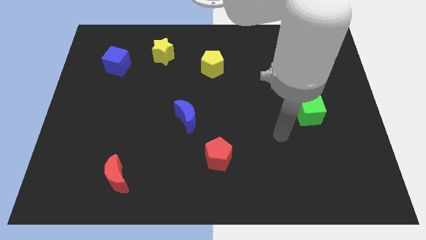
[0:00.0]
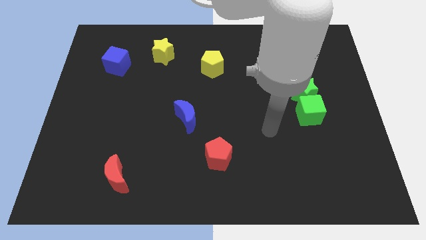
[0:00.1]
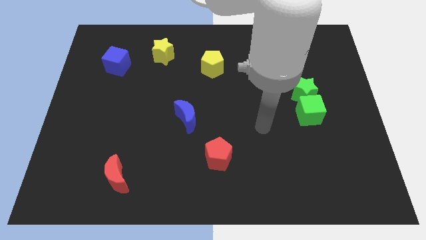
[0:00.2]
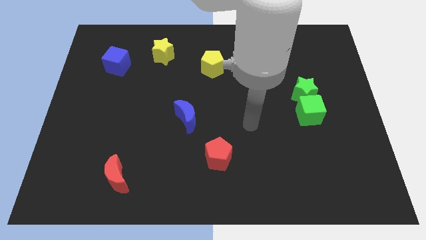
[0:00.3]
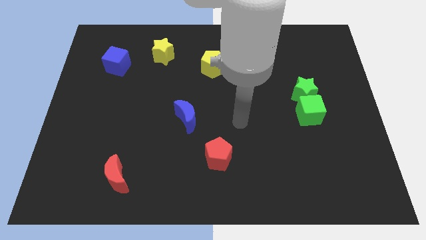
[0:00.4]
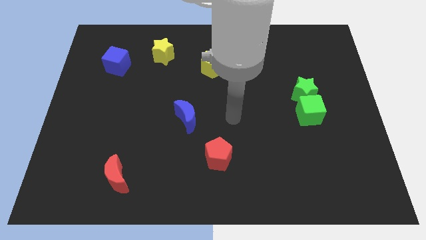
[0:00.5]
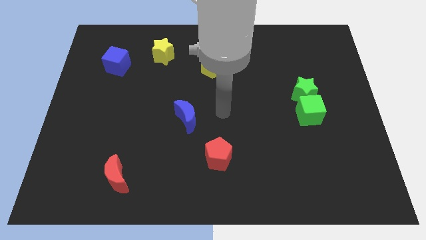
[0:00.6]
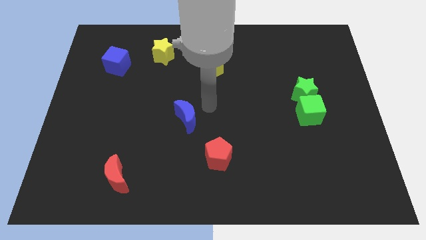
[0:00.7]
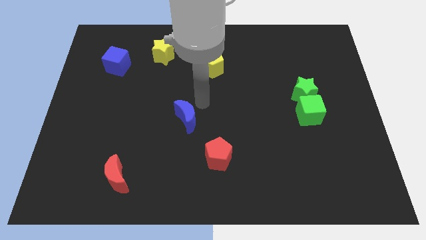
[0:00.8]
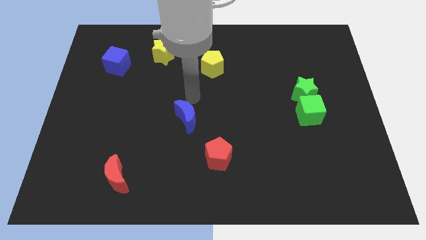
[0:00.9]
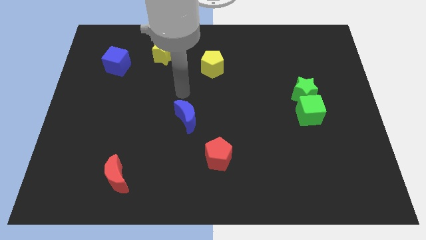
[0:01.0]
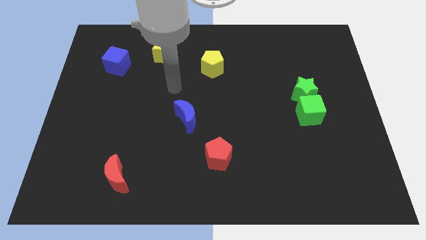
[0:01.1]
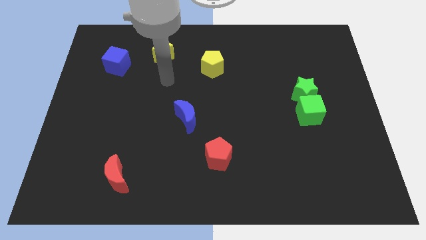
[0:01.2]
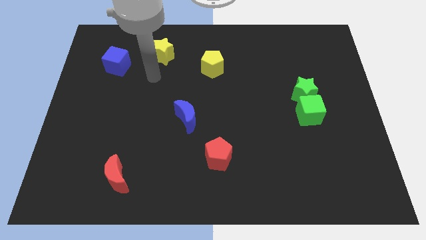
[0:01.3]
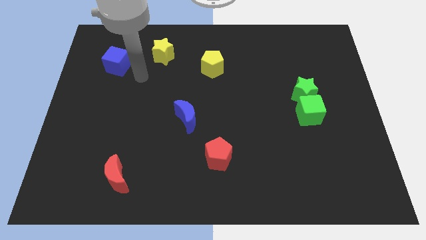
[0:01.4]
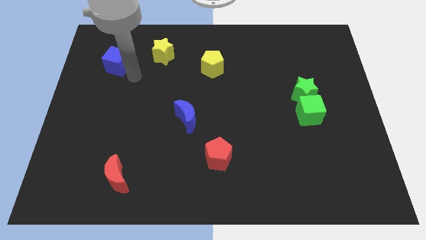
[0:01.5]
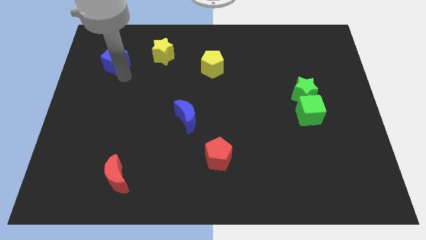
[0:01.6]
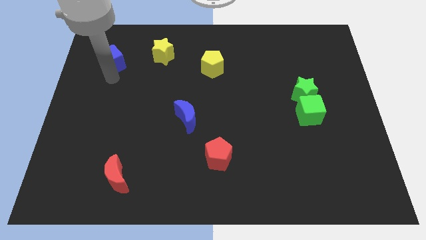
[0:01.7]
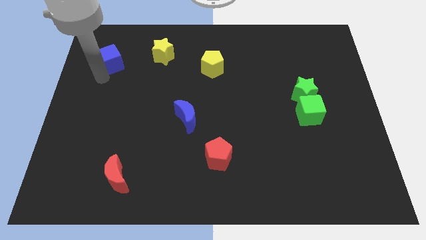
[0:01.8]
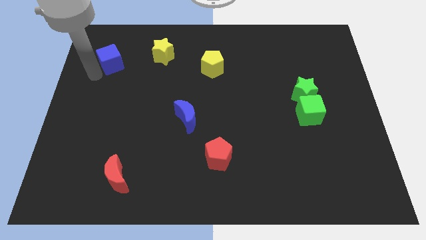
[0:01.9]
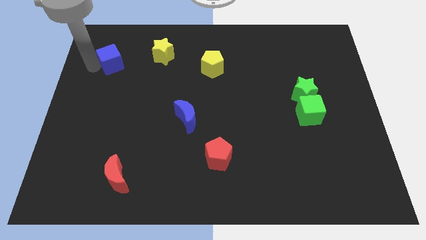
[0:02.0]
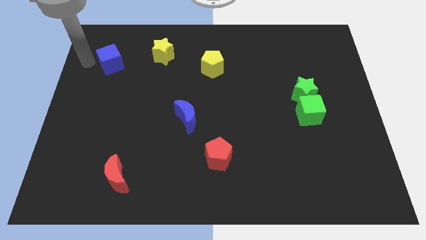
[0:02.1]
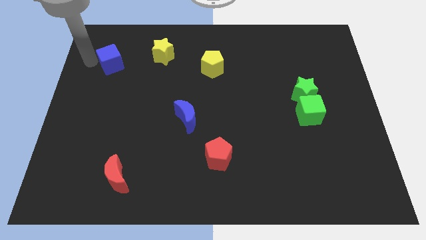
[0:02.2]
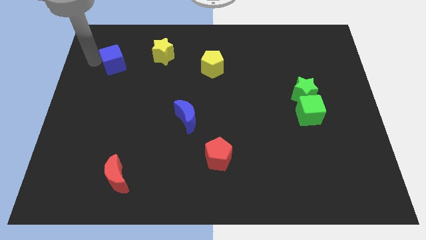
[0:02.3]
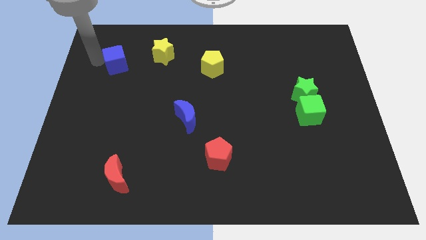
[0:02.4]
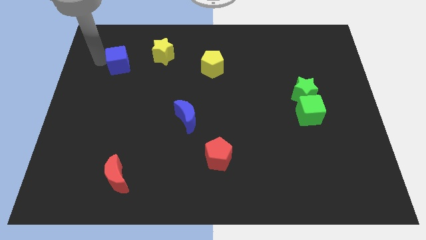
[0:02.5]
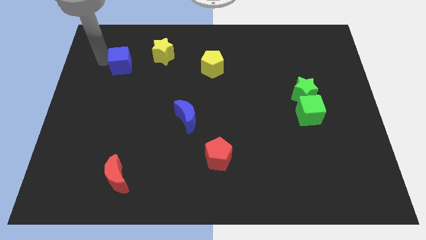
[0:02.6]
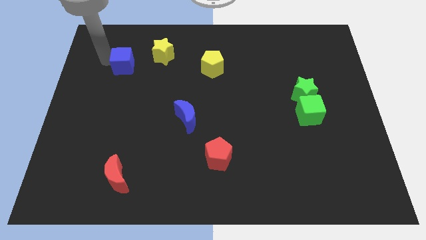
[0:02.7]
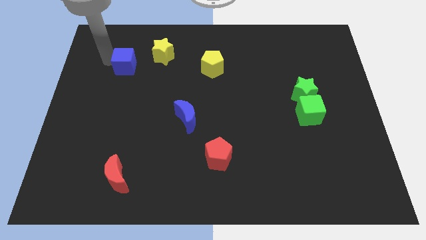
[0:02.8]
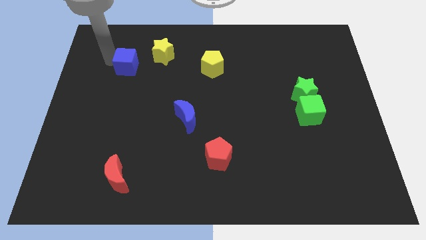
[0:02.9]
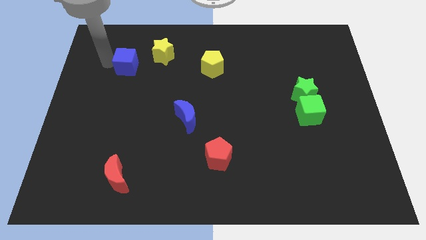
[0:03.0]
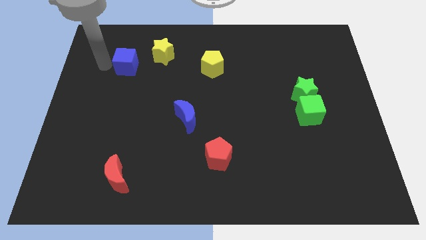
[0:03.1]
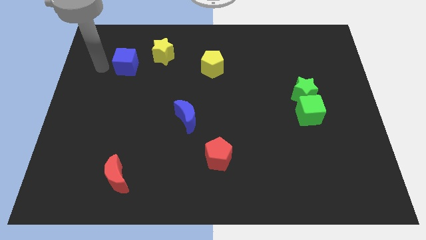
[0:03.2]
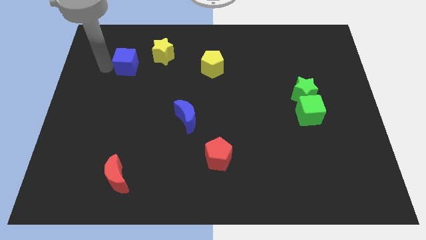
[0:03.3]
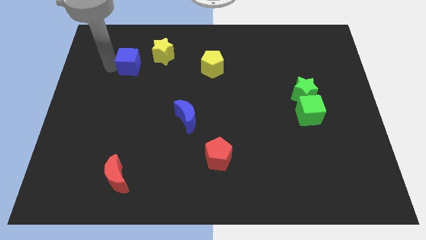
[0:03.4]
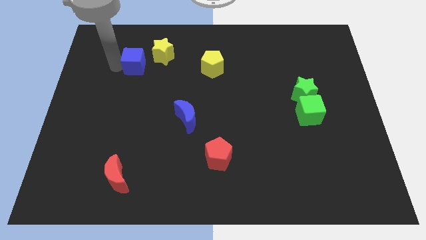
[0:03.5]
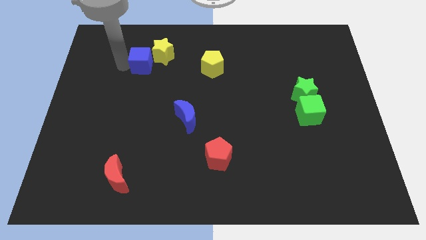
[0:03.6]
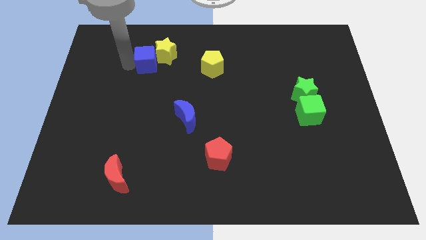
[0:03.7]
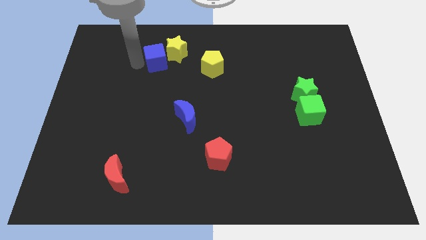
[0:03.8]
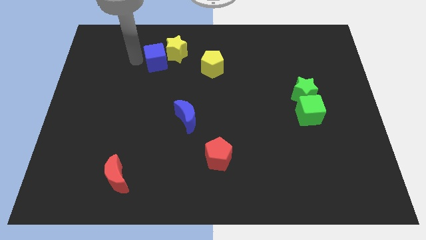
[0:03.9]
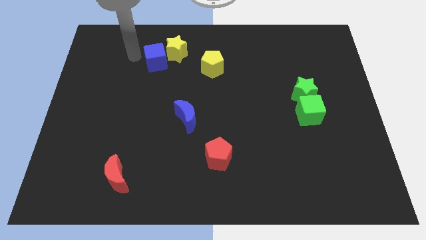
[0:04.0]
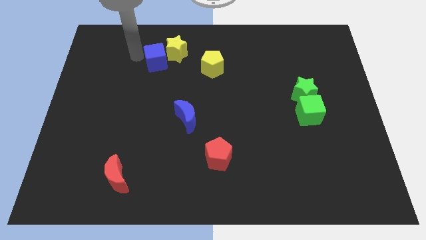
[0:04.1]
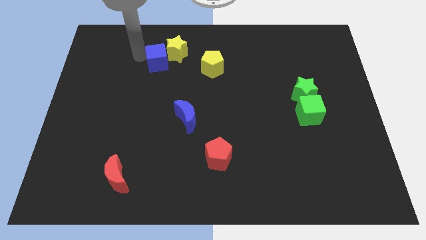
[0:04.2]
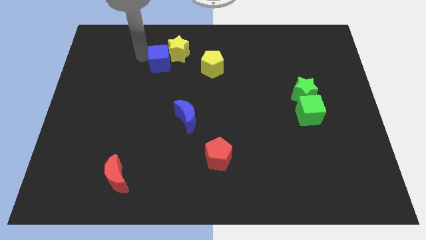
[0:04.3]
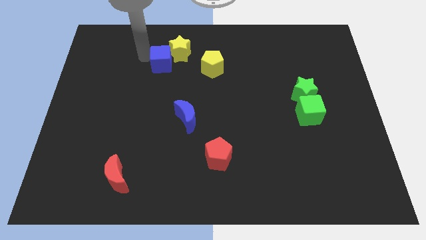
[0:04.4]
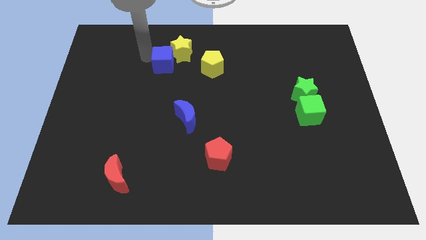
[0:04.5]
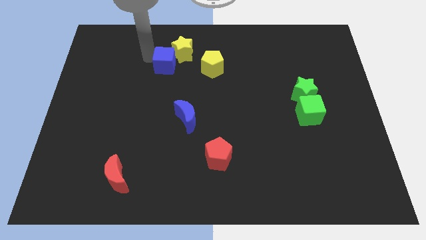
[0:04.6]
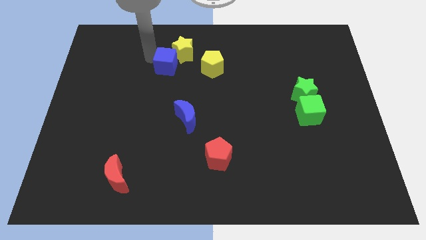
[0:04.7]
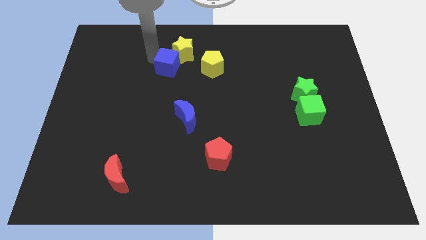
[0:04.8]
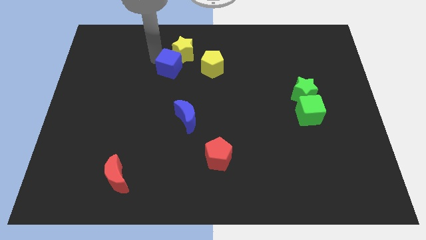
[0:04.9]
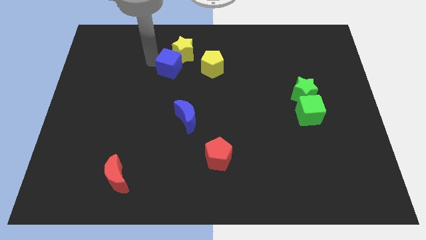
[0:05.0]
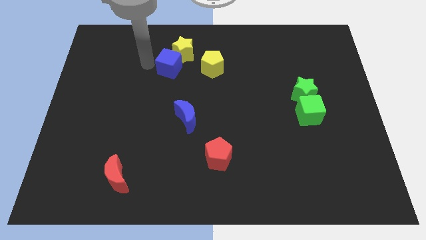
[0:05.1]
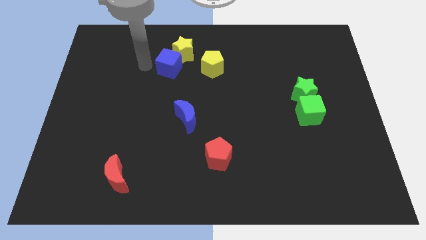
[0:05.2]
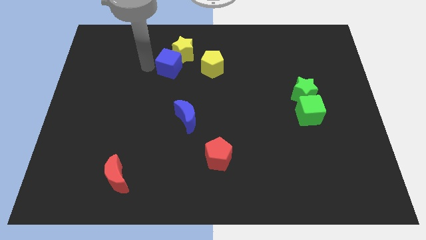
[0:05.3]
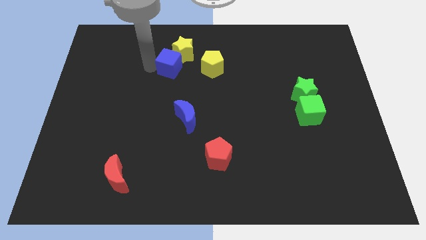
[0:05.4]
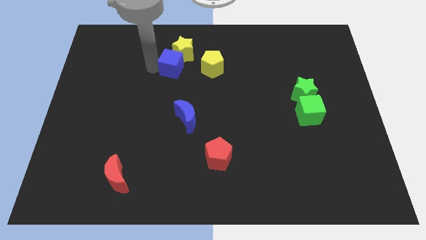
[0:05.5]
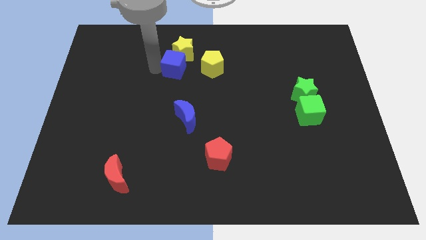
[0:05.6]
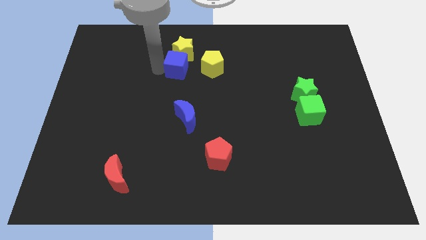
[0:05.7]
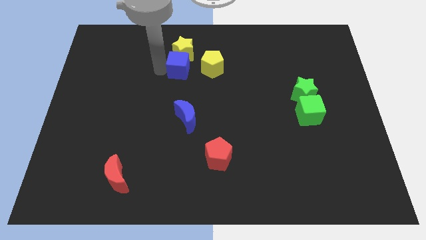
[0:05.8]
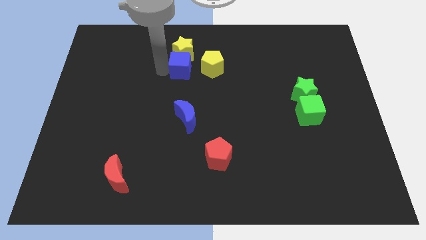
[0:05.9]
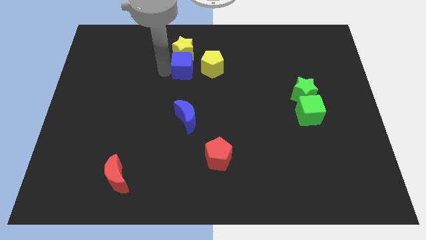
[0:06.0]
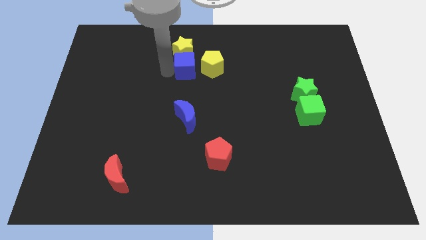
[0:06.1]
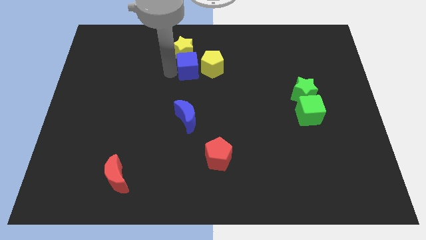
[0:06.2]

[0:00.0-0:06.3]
push the blue cube to the yellow pentagon

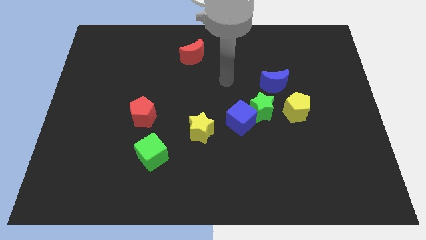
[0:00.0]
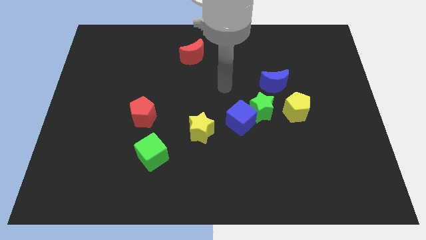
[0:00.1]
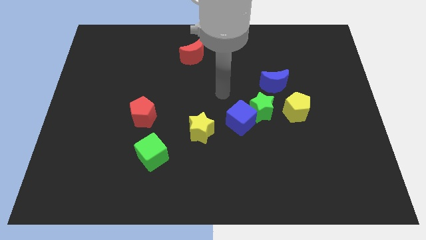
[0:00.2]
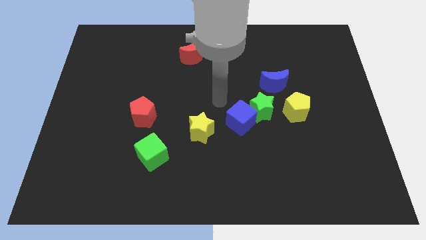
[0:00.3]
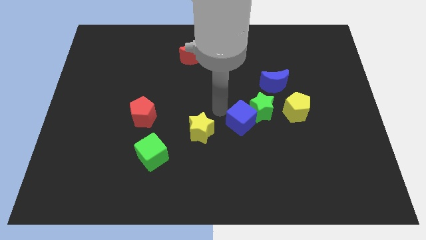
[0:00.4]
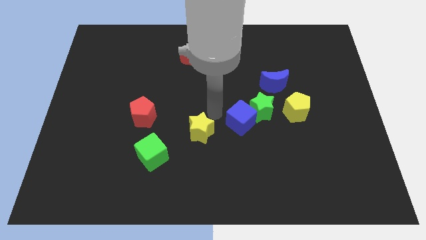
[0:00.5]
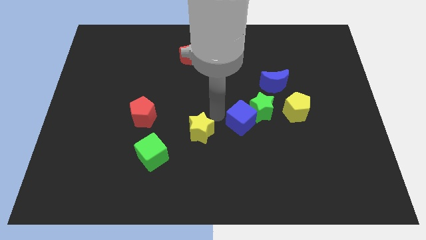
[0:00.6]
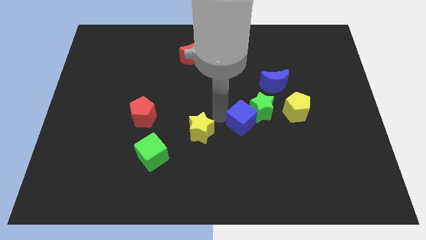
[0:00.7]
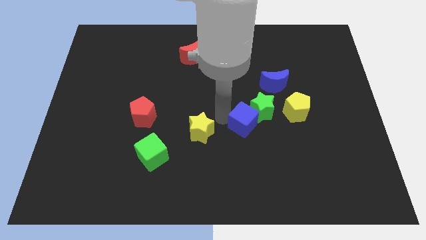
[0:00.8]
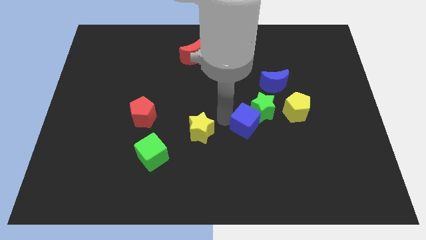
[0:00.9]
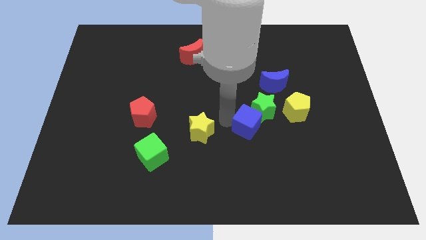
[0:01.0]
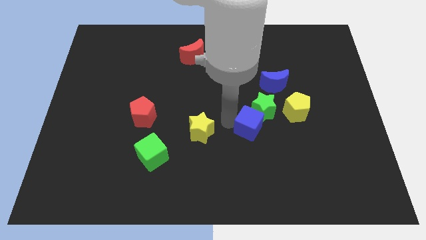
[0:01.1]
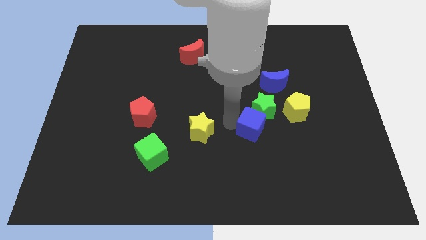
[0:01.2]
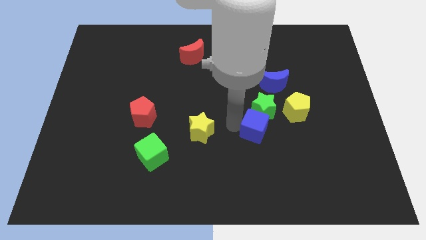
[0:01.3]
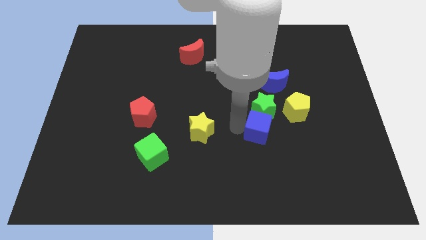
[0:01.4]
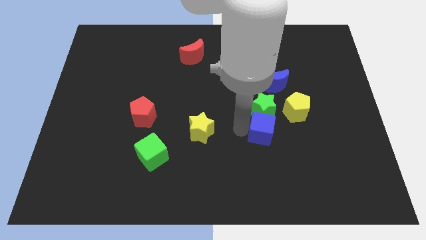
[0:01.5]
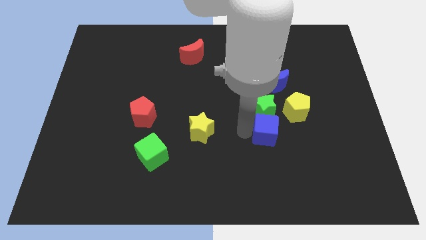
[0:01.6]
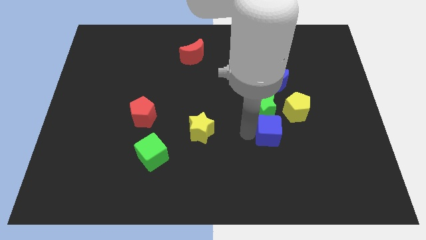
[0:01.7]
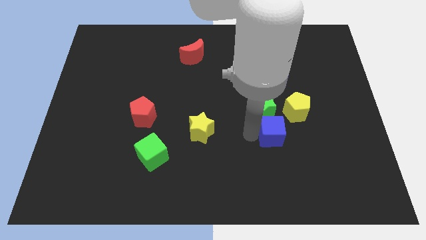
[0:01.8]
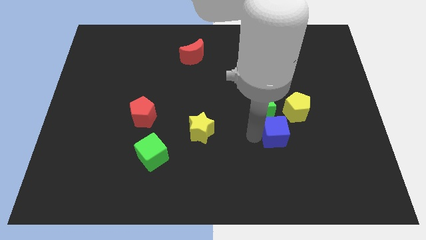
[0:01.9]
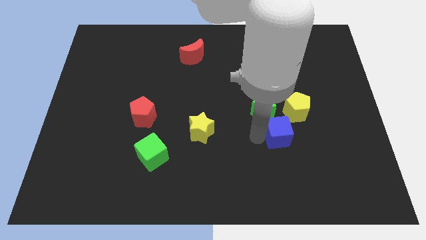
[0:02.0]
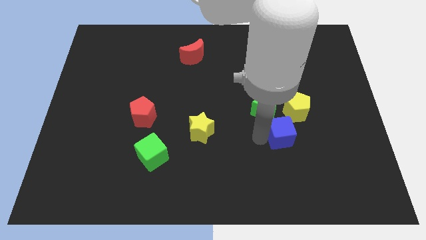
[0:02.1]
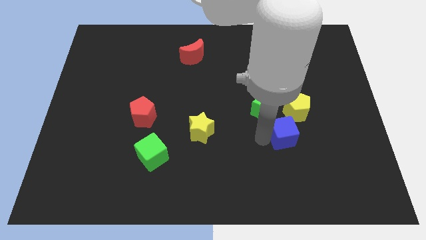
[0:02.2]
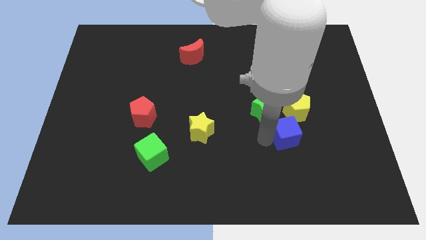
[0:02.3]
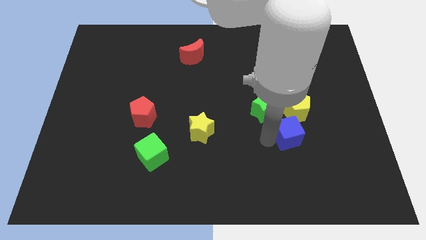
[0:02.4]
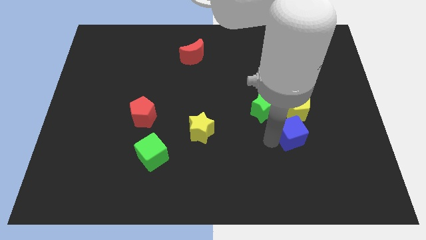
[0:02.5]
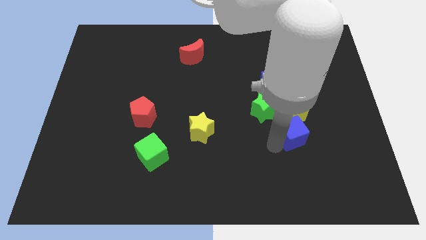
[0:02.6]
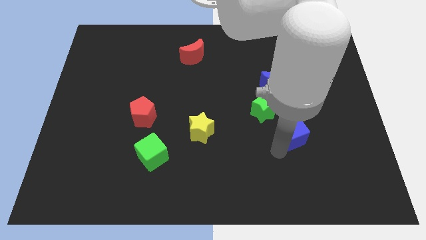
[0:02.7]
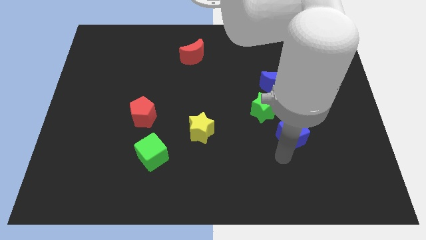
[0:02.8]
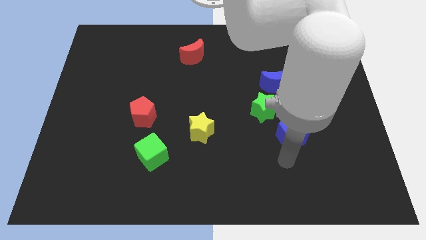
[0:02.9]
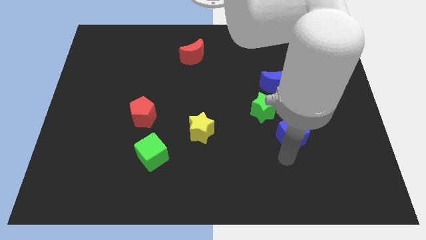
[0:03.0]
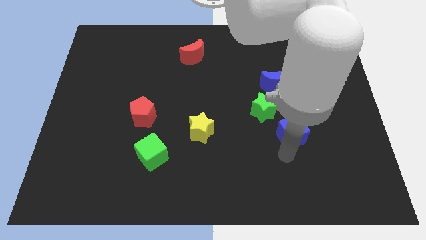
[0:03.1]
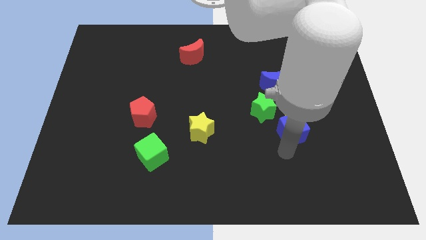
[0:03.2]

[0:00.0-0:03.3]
put the blue cube towards the yellow pentagon
